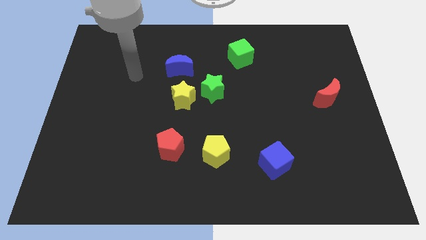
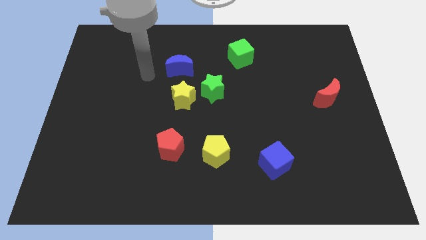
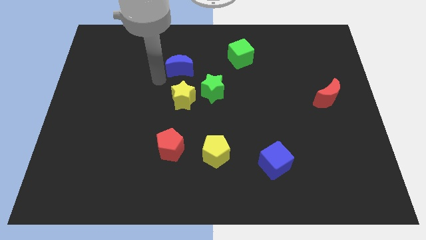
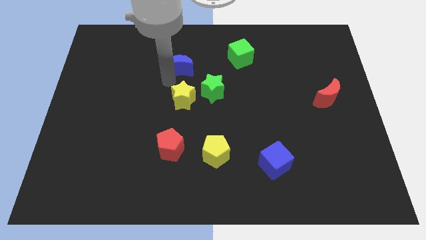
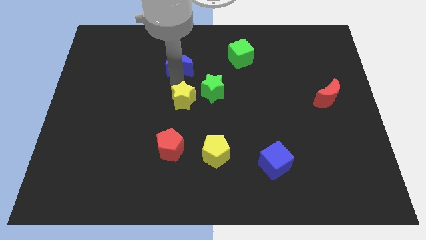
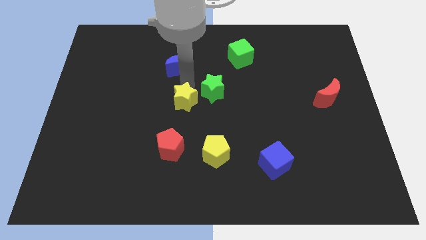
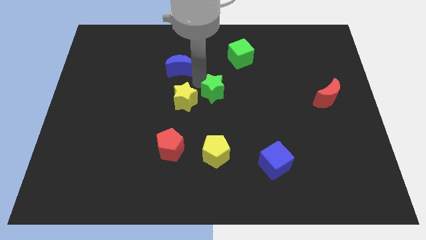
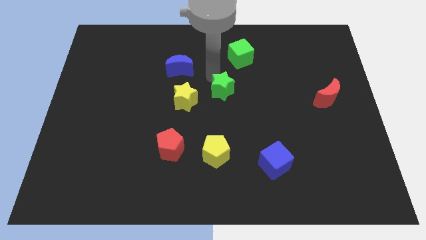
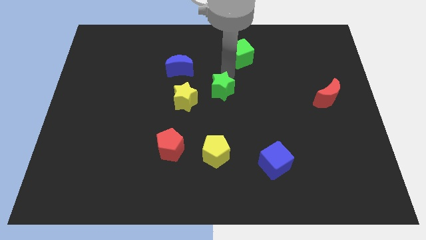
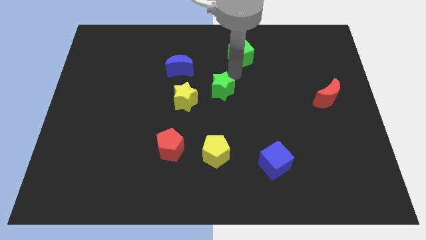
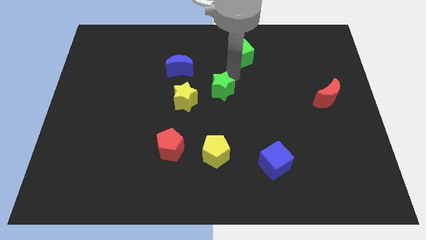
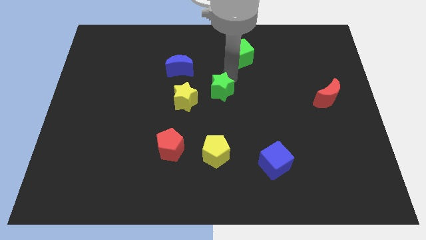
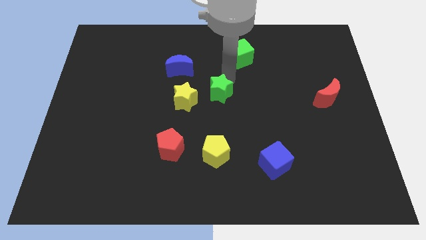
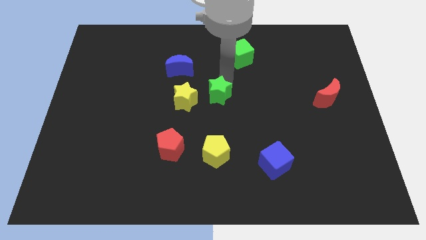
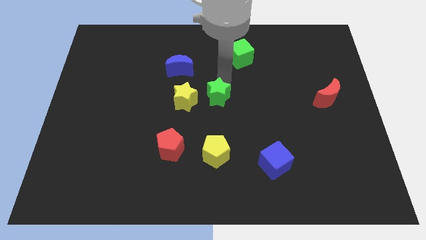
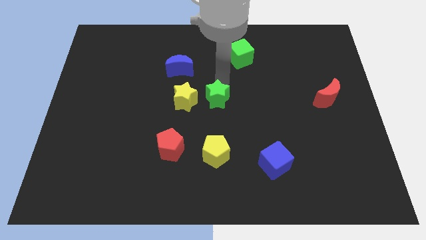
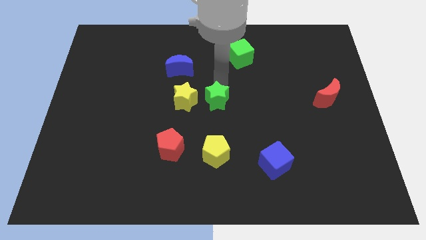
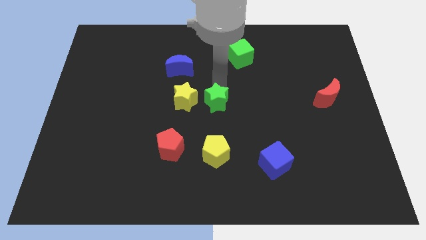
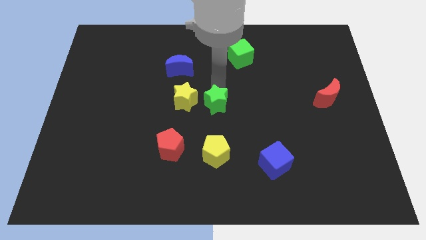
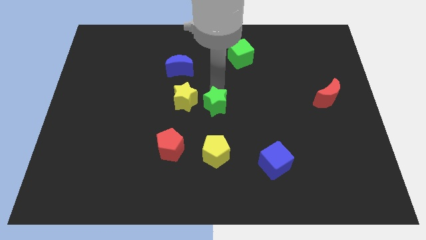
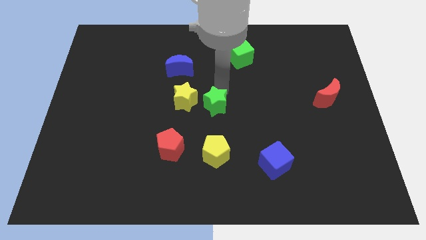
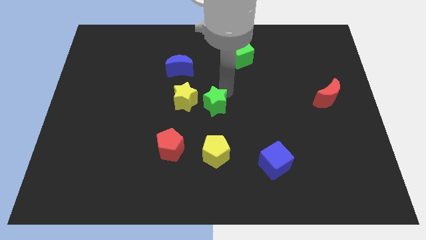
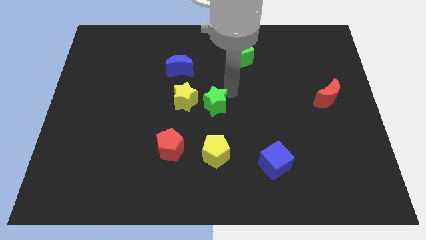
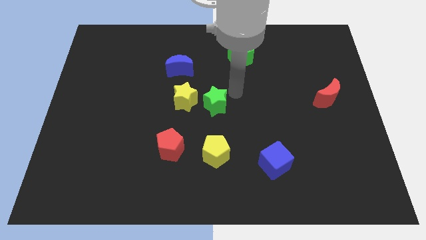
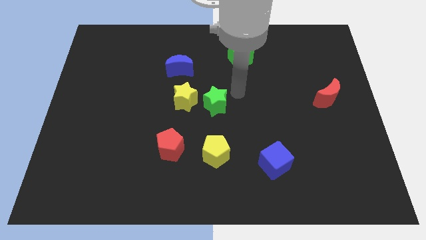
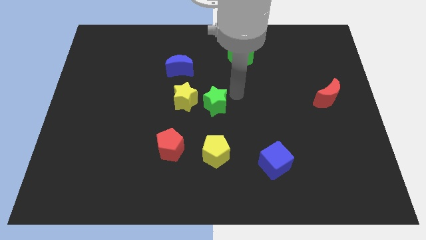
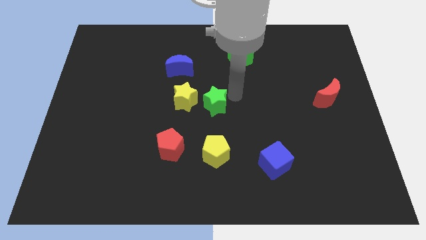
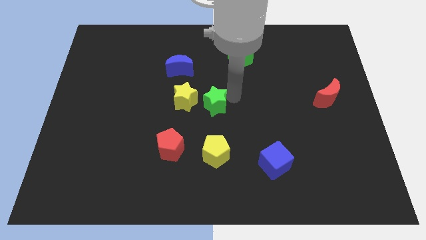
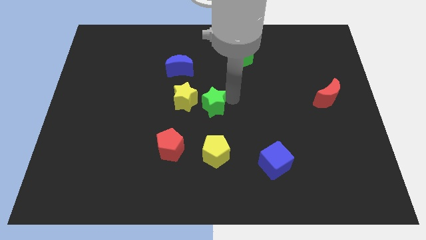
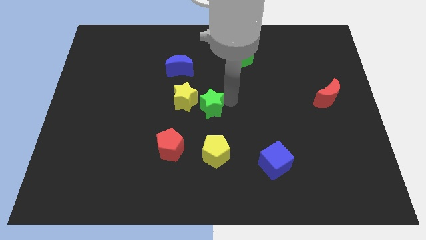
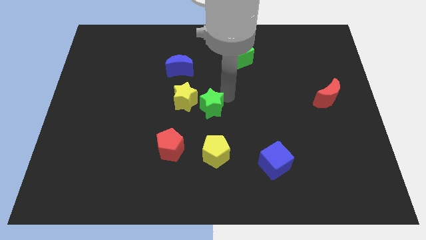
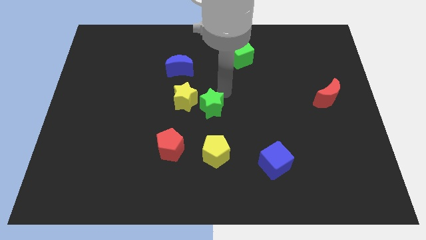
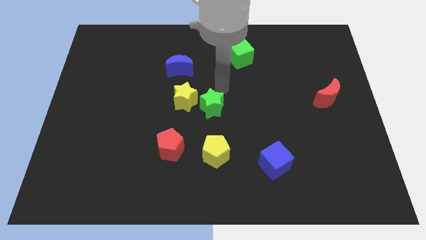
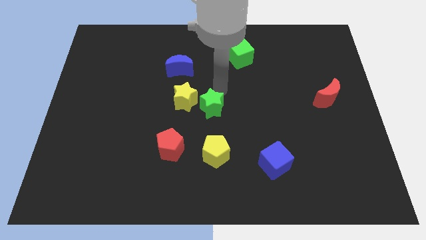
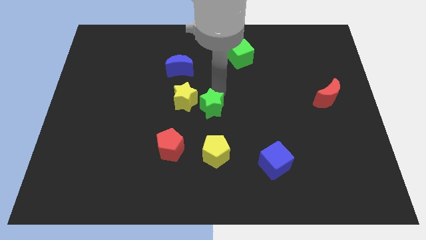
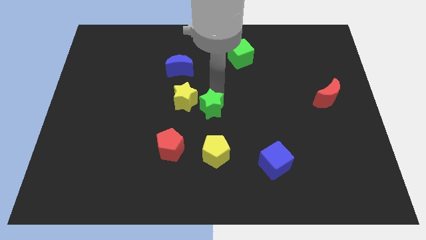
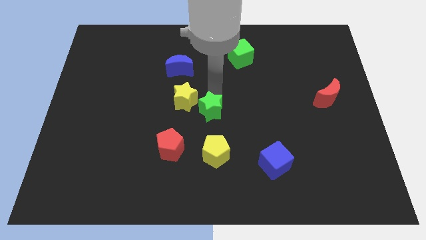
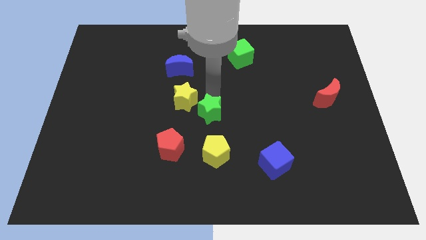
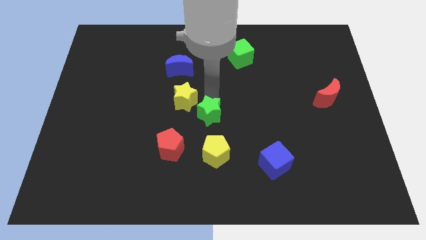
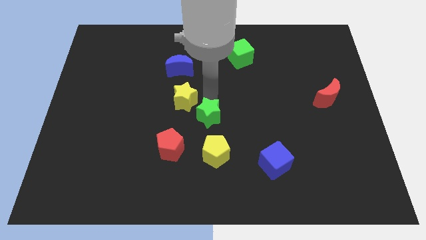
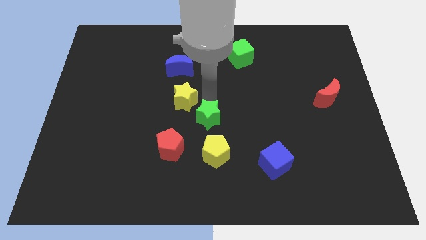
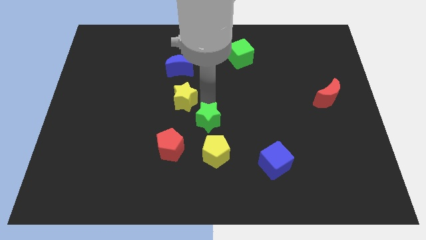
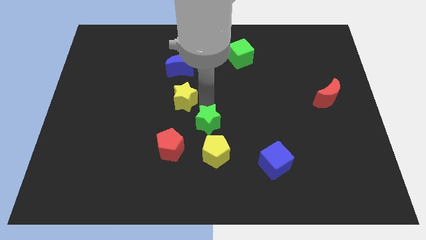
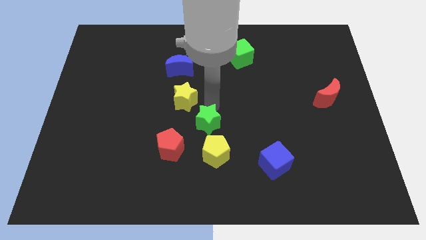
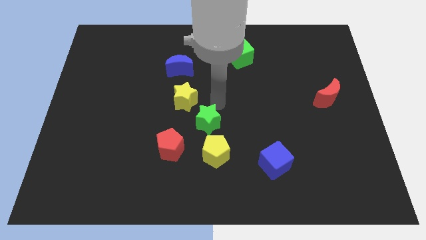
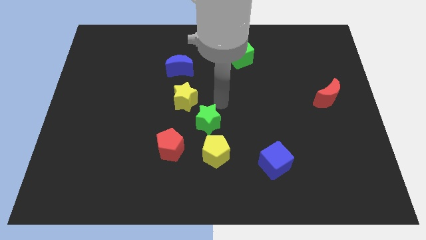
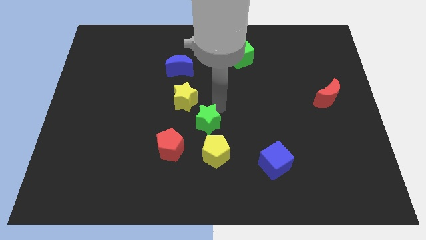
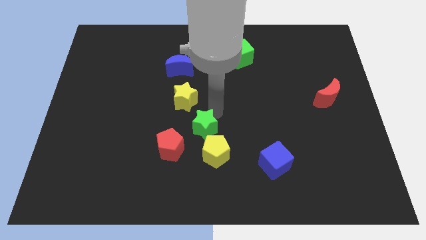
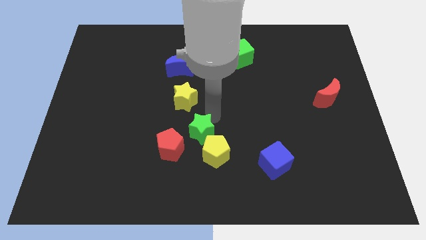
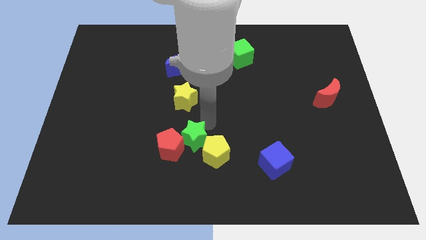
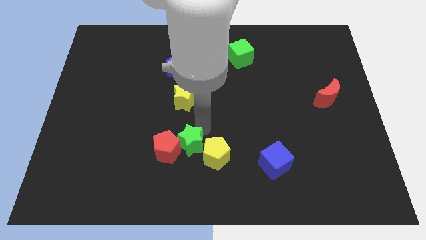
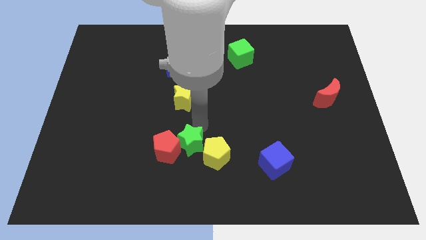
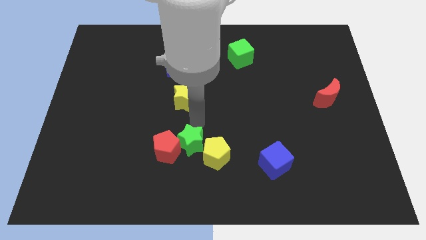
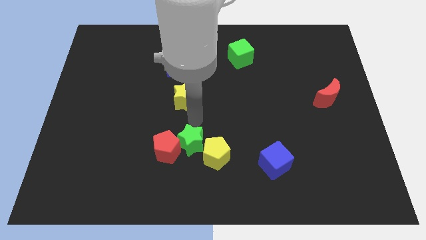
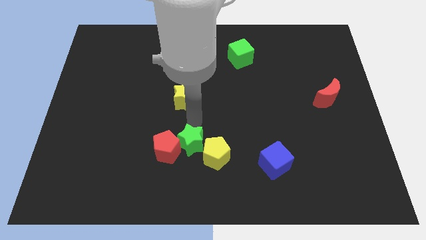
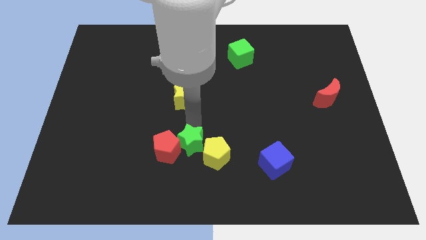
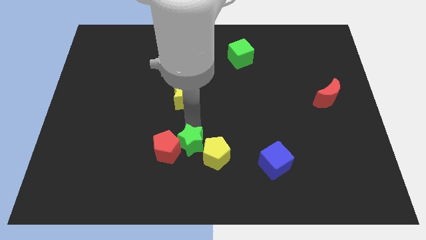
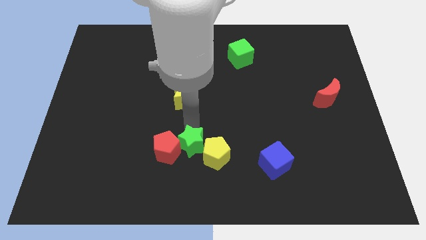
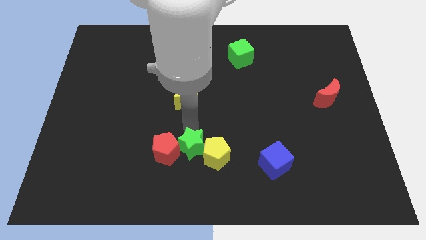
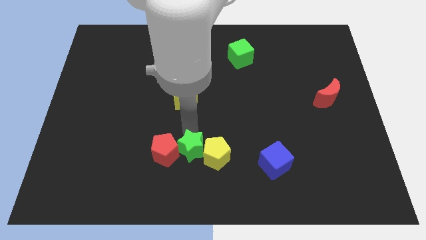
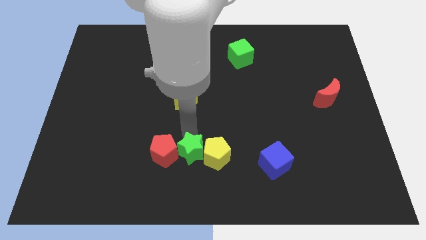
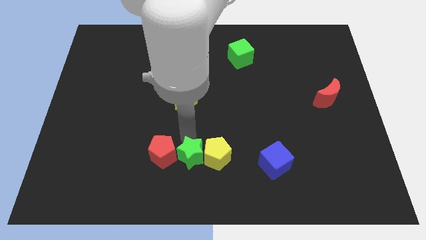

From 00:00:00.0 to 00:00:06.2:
push the green star to the bottom side
